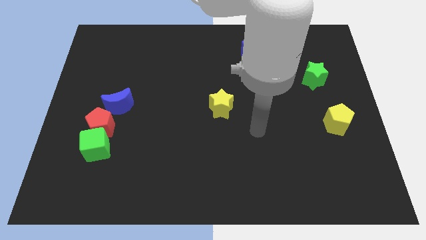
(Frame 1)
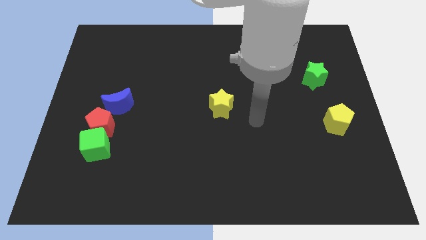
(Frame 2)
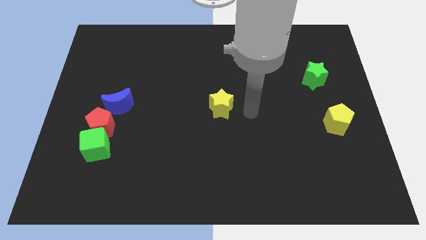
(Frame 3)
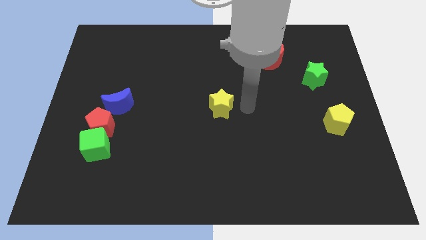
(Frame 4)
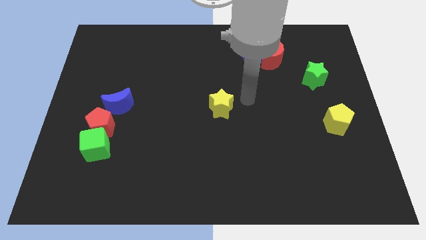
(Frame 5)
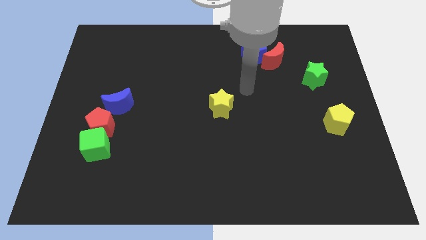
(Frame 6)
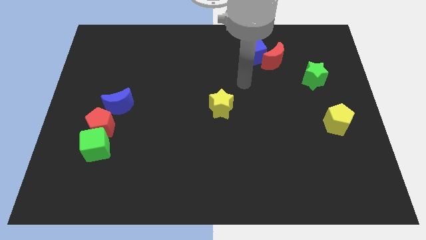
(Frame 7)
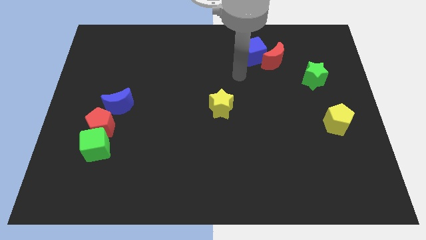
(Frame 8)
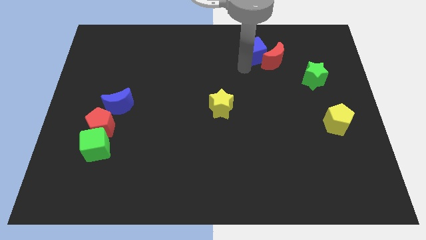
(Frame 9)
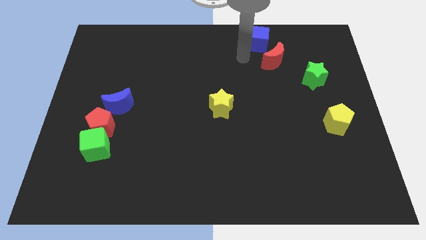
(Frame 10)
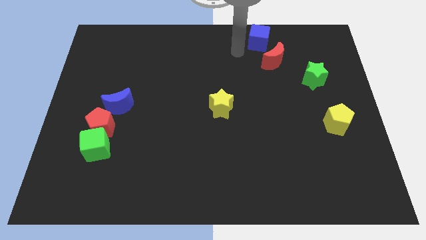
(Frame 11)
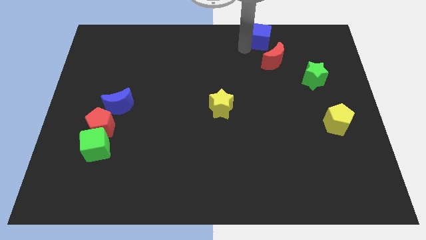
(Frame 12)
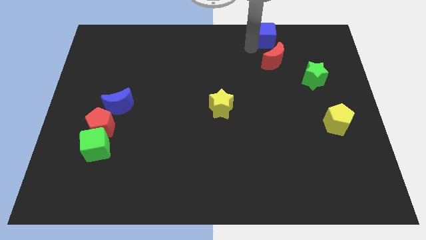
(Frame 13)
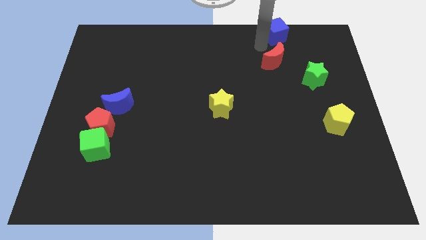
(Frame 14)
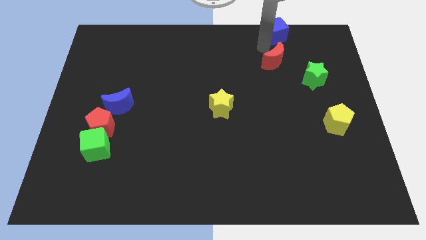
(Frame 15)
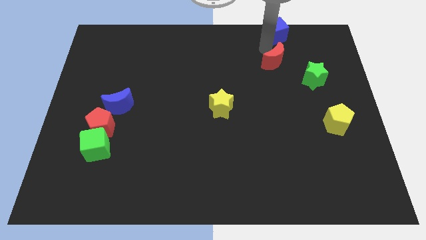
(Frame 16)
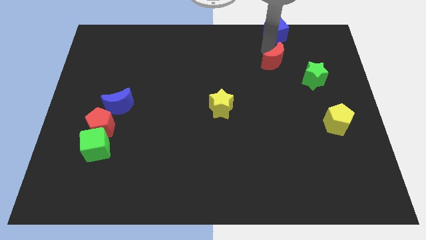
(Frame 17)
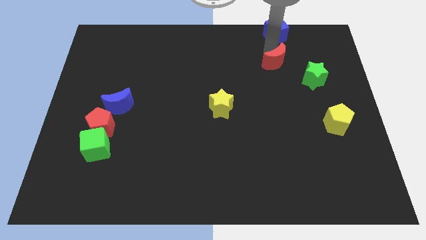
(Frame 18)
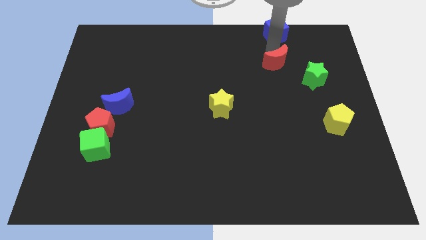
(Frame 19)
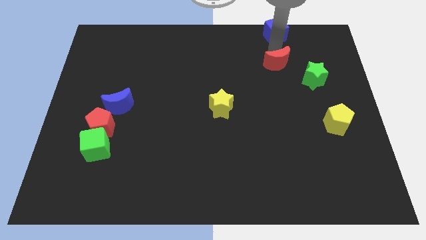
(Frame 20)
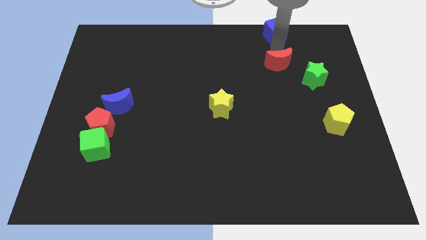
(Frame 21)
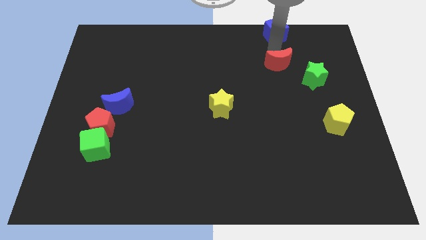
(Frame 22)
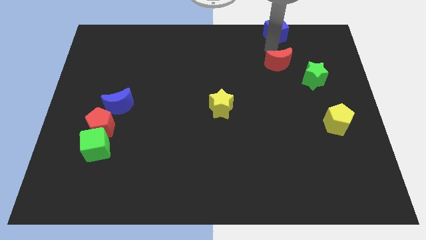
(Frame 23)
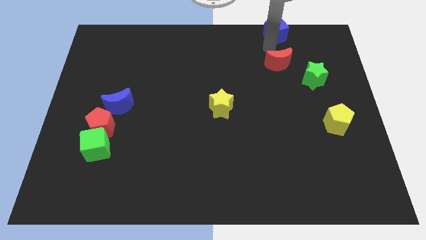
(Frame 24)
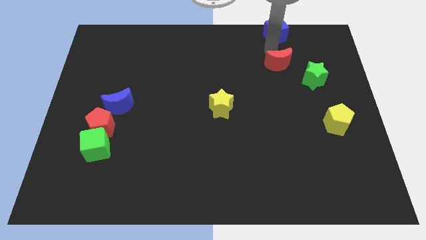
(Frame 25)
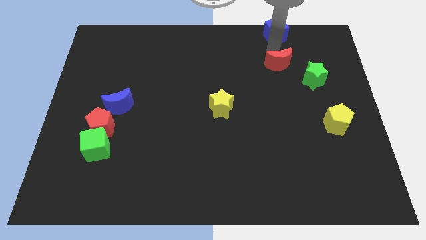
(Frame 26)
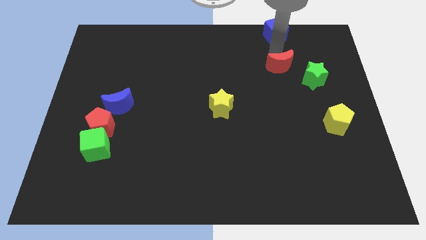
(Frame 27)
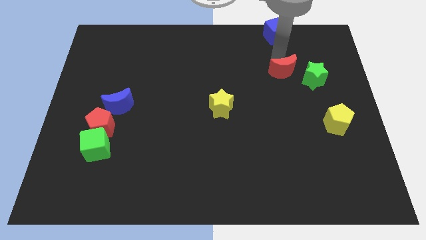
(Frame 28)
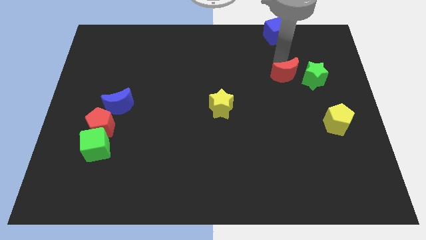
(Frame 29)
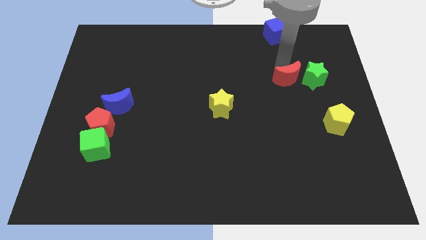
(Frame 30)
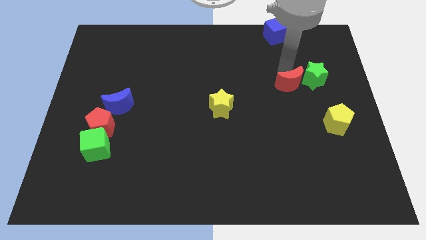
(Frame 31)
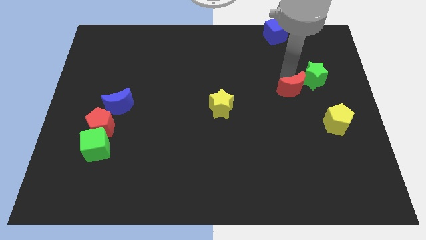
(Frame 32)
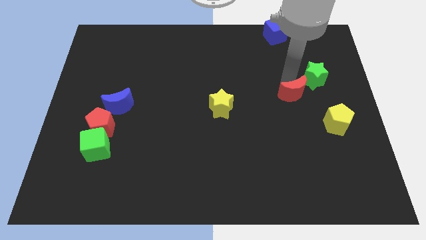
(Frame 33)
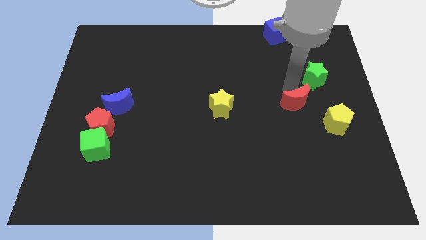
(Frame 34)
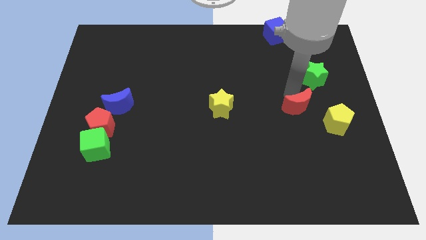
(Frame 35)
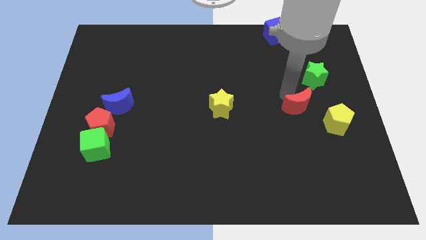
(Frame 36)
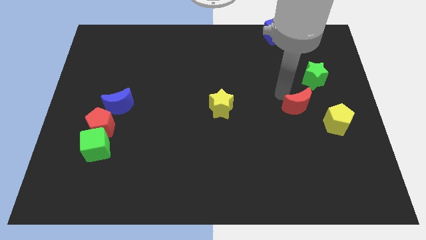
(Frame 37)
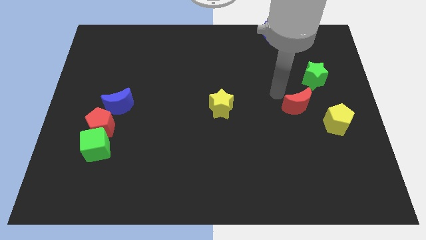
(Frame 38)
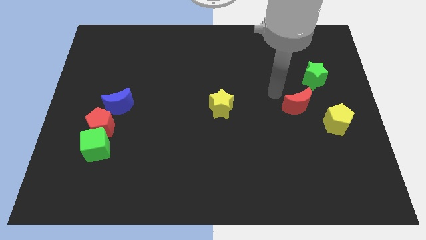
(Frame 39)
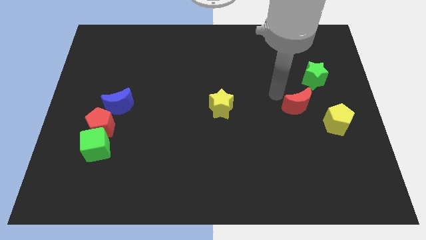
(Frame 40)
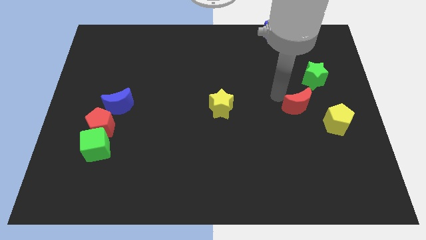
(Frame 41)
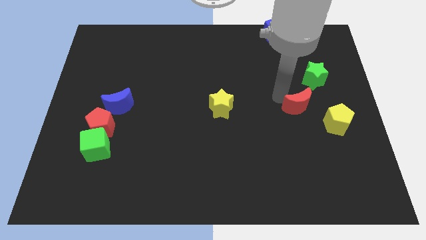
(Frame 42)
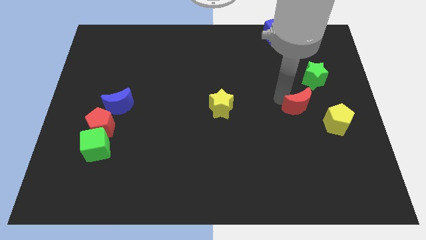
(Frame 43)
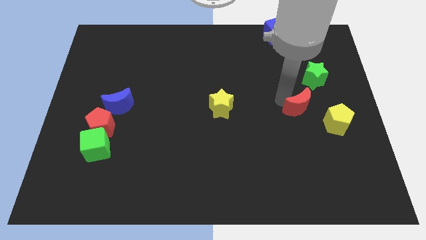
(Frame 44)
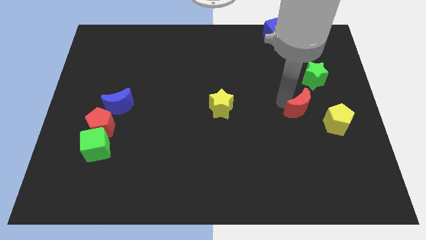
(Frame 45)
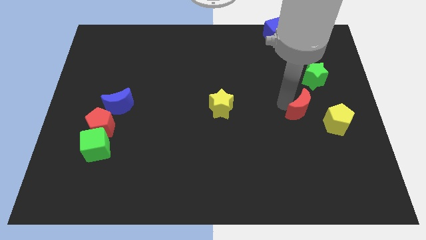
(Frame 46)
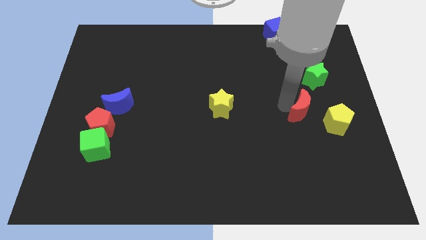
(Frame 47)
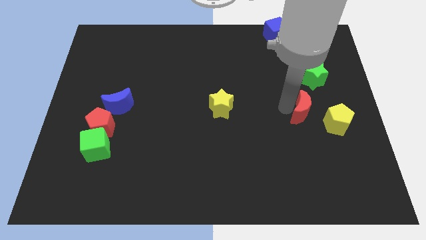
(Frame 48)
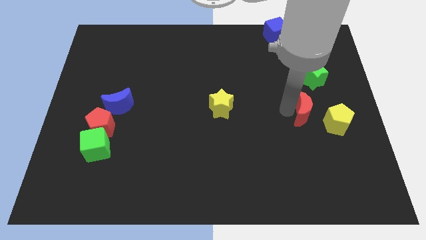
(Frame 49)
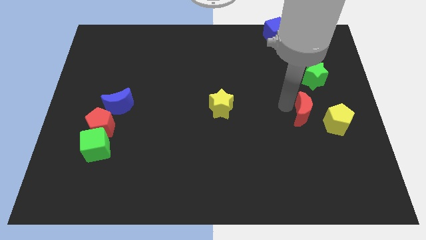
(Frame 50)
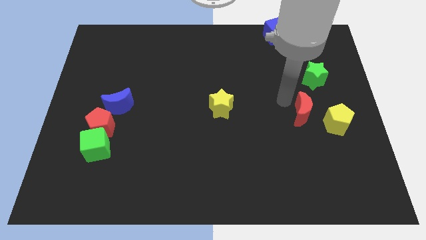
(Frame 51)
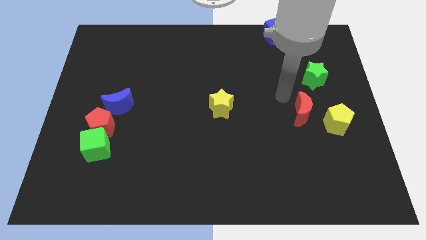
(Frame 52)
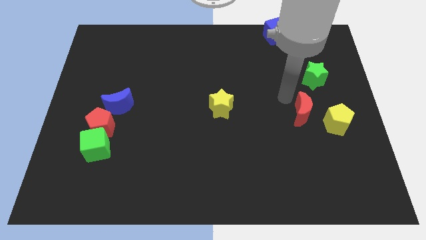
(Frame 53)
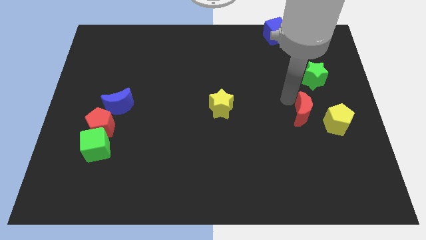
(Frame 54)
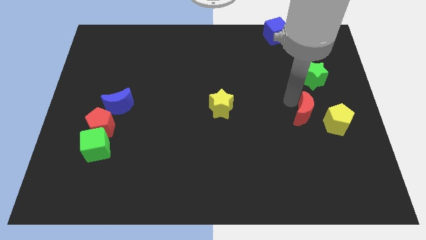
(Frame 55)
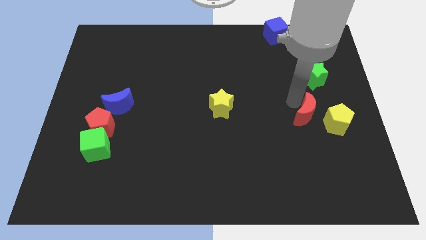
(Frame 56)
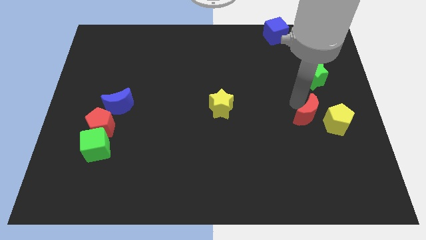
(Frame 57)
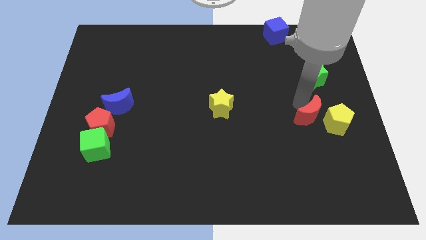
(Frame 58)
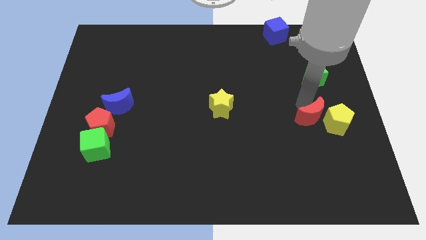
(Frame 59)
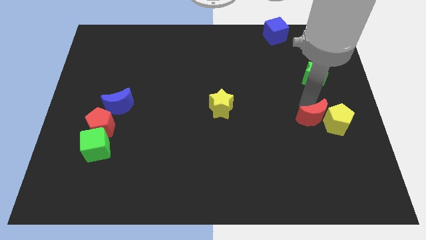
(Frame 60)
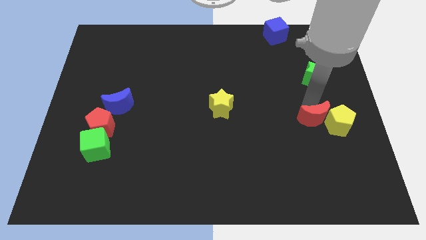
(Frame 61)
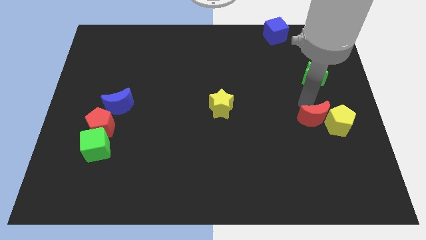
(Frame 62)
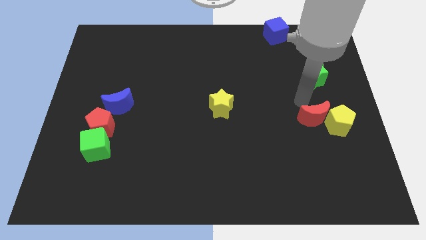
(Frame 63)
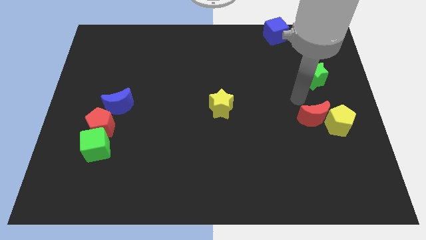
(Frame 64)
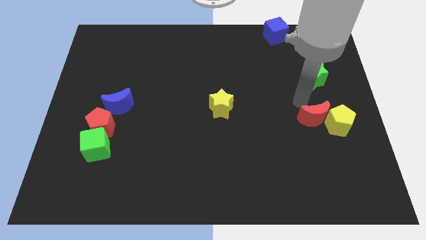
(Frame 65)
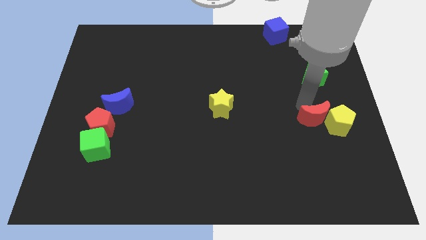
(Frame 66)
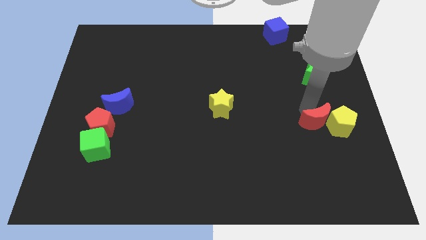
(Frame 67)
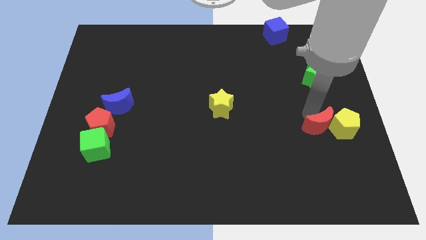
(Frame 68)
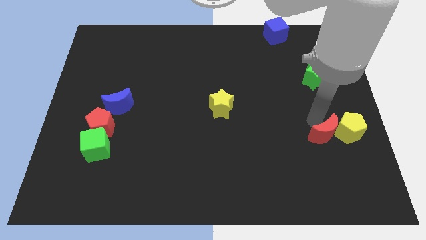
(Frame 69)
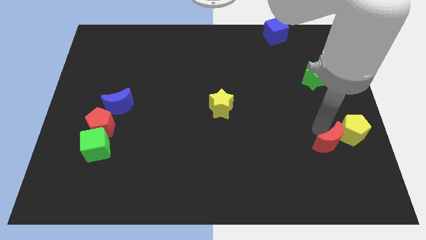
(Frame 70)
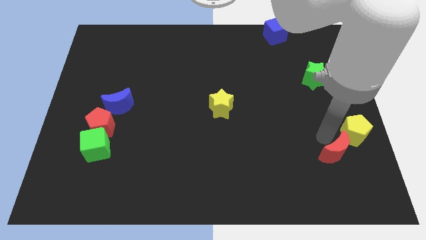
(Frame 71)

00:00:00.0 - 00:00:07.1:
slide the red moon to the bottom of the yellow pentagon
